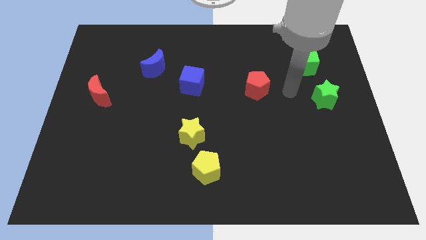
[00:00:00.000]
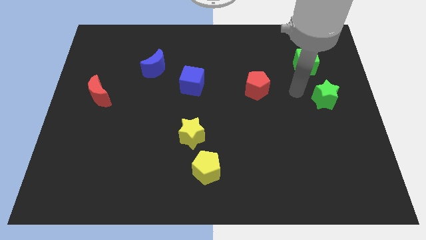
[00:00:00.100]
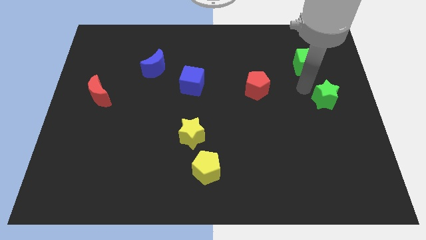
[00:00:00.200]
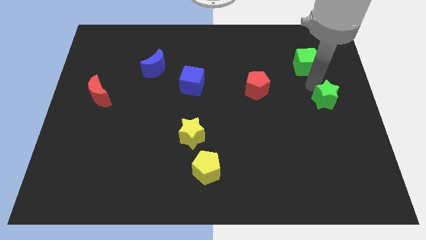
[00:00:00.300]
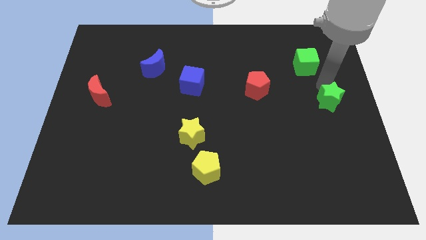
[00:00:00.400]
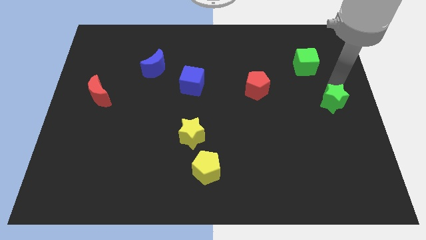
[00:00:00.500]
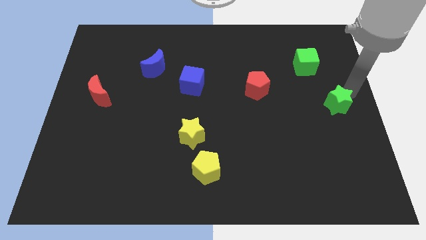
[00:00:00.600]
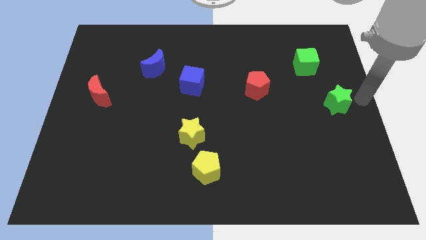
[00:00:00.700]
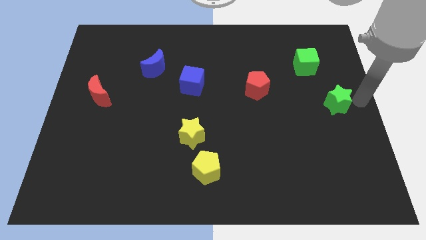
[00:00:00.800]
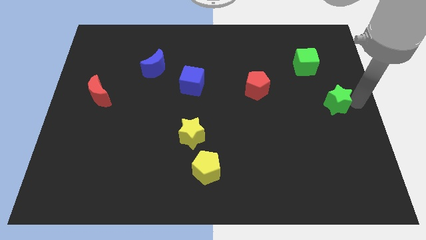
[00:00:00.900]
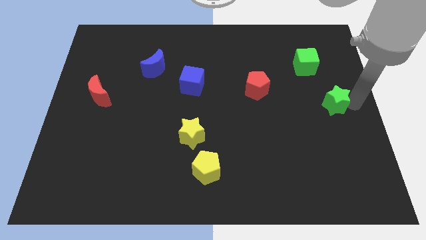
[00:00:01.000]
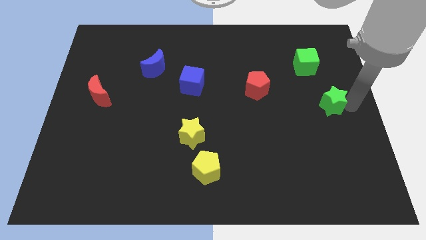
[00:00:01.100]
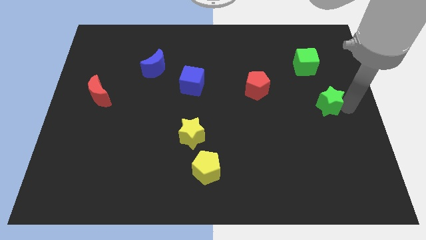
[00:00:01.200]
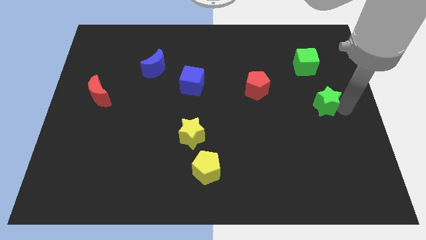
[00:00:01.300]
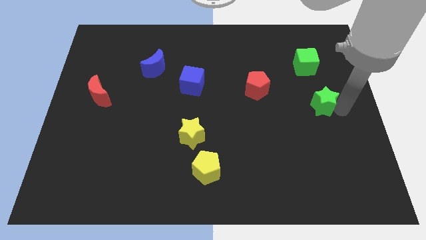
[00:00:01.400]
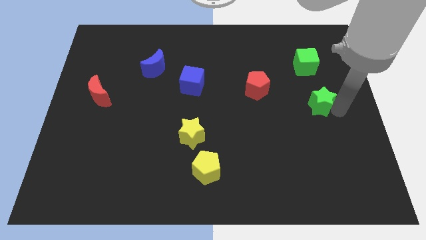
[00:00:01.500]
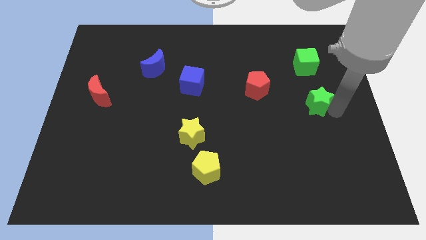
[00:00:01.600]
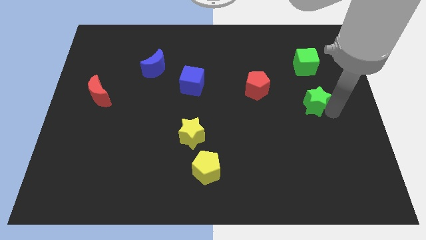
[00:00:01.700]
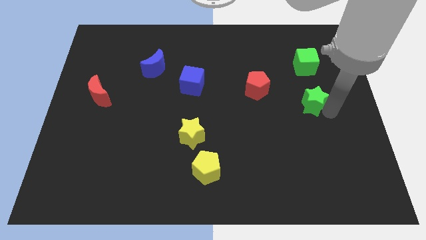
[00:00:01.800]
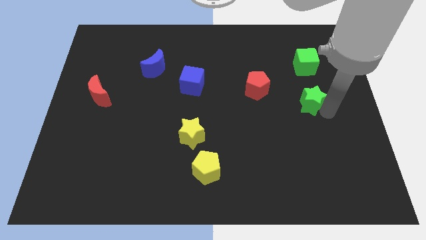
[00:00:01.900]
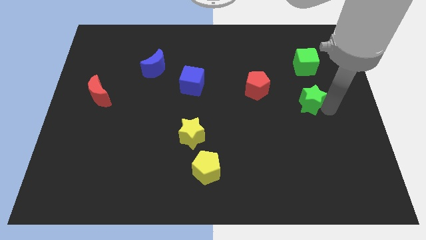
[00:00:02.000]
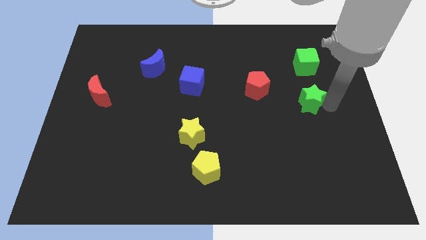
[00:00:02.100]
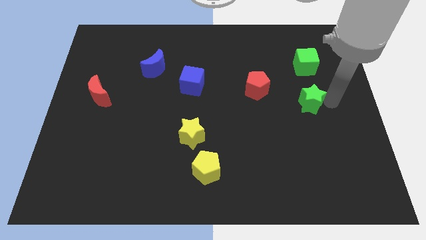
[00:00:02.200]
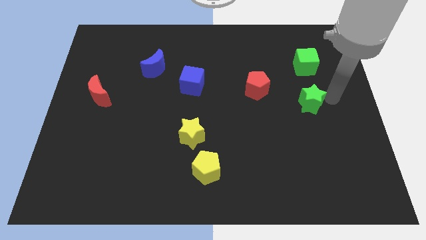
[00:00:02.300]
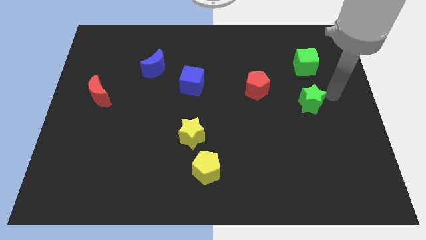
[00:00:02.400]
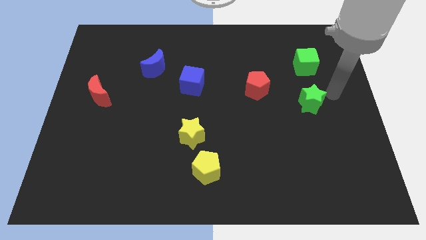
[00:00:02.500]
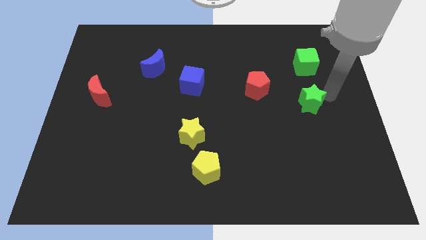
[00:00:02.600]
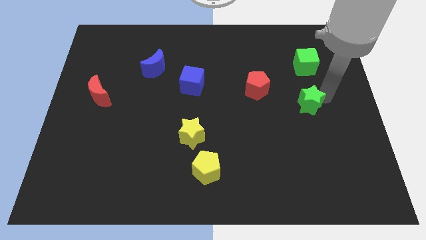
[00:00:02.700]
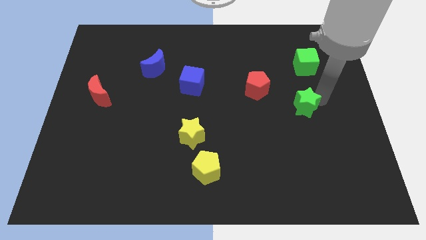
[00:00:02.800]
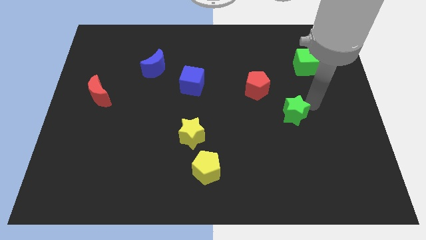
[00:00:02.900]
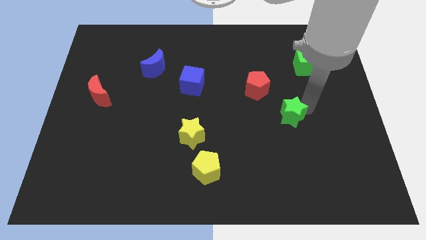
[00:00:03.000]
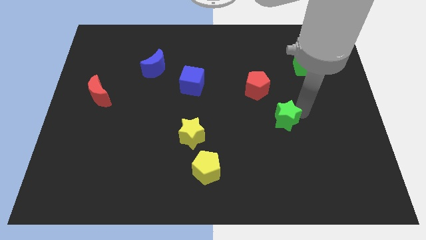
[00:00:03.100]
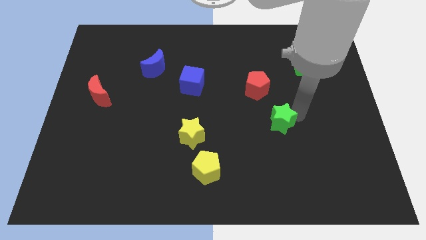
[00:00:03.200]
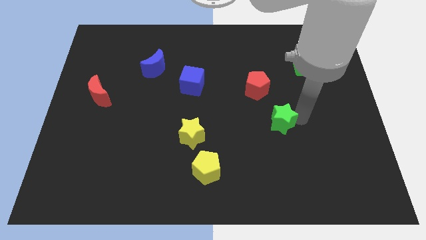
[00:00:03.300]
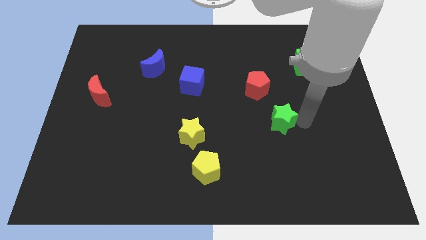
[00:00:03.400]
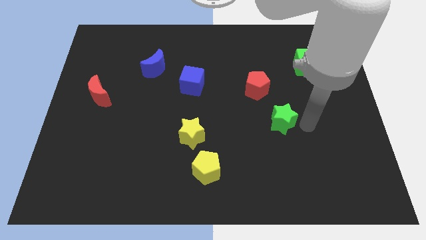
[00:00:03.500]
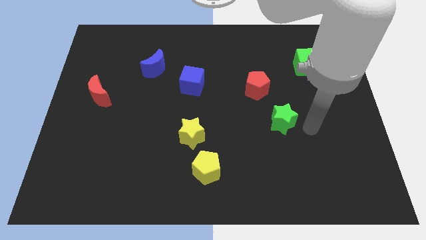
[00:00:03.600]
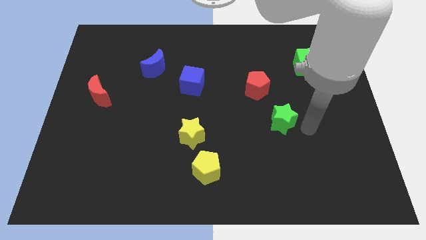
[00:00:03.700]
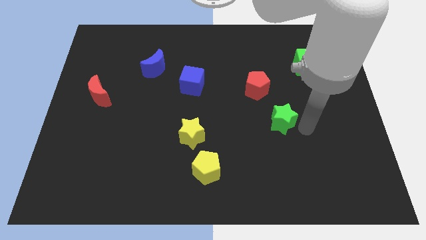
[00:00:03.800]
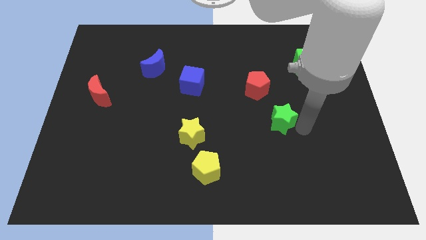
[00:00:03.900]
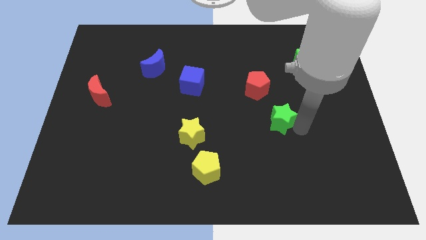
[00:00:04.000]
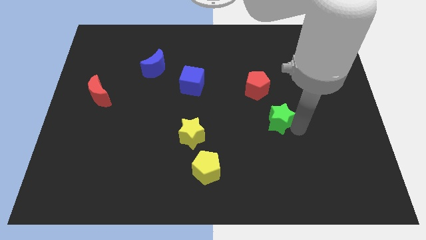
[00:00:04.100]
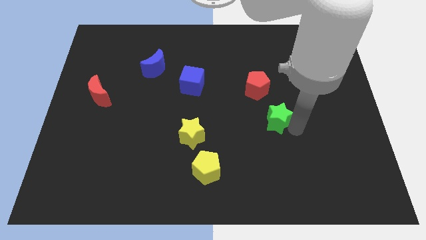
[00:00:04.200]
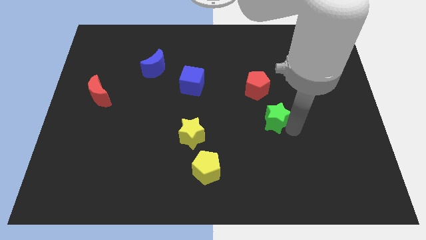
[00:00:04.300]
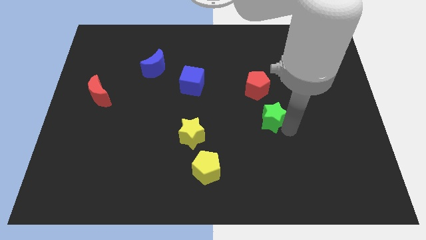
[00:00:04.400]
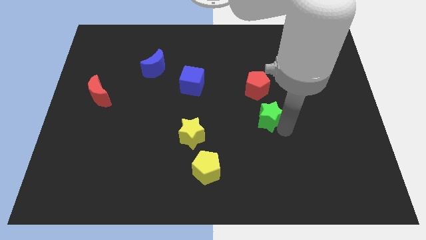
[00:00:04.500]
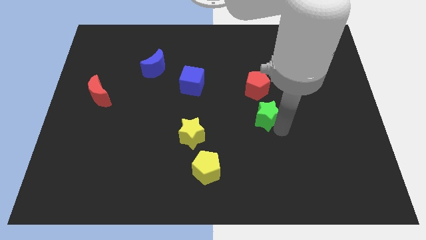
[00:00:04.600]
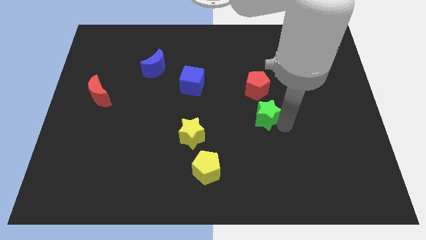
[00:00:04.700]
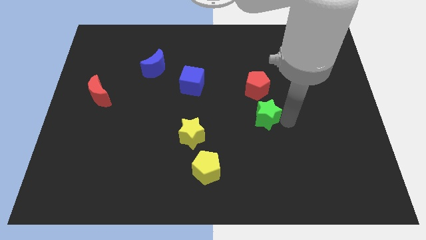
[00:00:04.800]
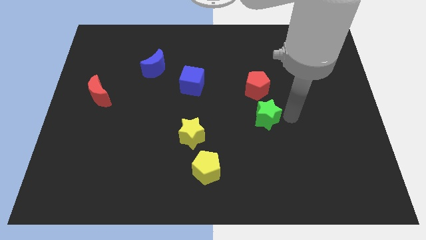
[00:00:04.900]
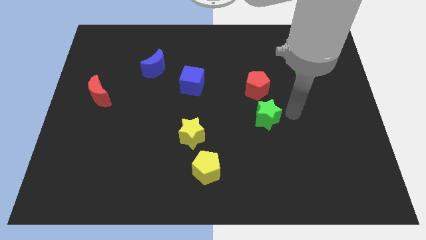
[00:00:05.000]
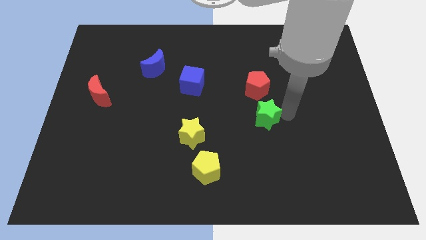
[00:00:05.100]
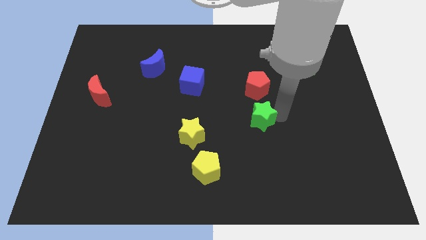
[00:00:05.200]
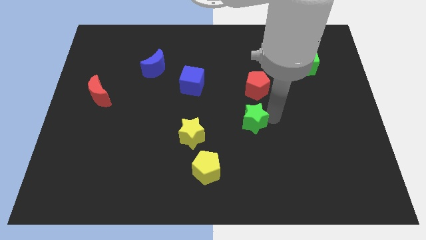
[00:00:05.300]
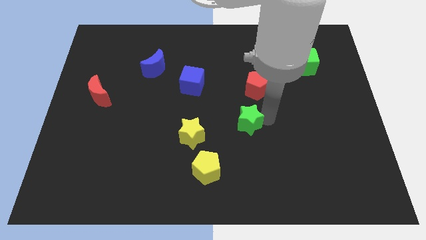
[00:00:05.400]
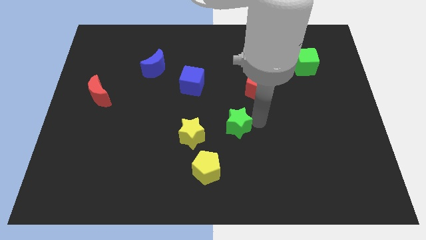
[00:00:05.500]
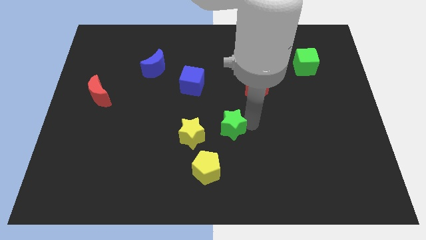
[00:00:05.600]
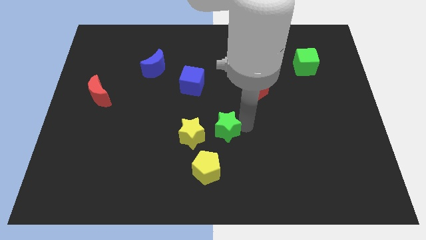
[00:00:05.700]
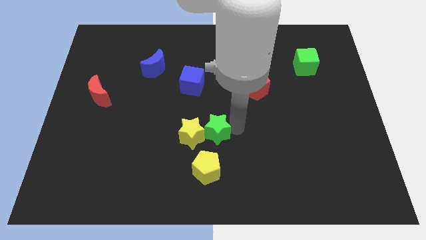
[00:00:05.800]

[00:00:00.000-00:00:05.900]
push the green star to the yellow star

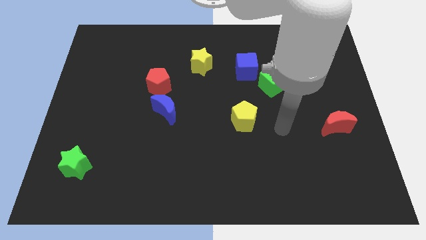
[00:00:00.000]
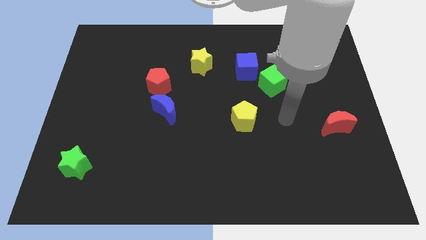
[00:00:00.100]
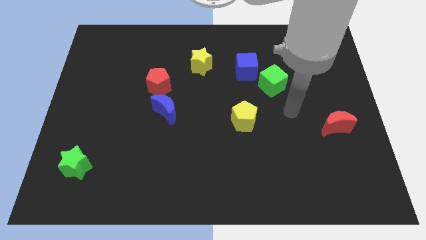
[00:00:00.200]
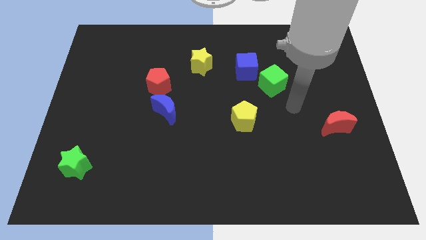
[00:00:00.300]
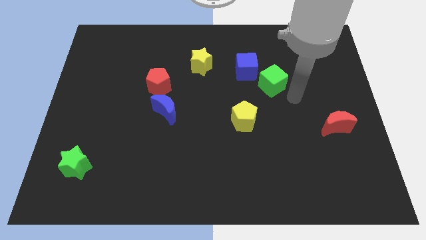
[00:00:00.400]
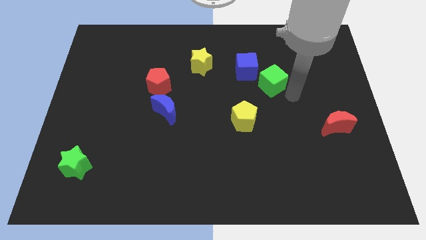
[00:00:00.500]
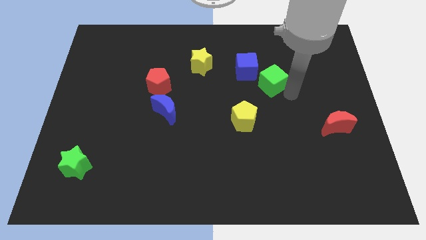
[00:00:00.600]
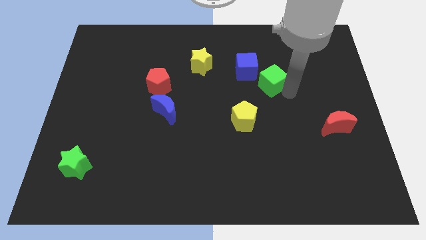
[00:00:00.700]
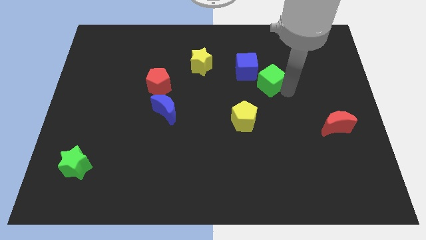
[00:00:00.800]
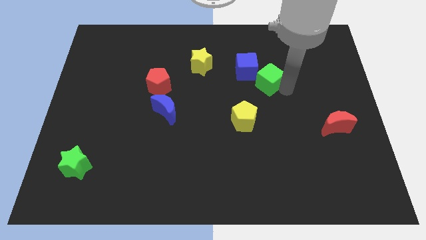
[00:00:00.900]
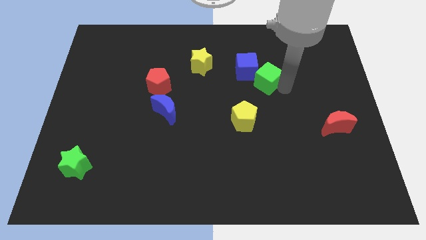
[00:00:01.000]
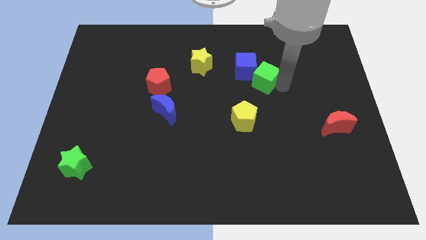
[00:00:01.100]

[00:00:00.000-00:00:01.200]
put the green cube towards the blue cube
